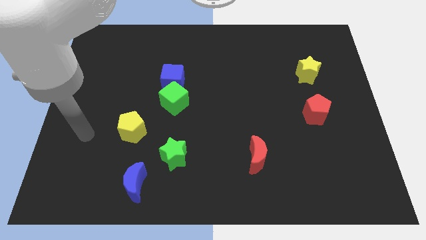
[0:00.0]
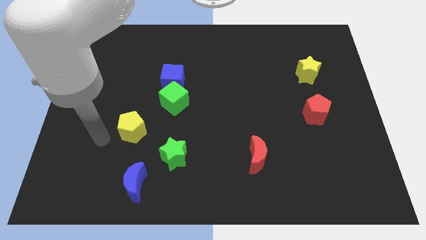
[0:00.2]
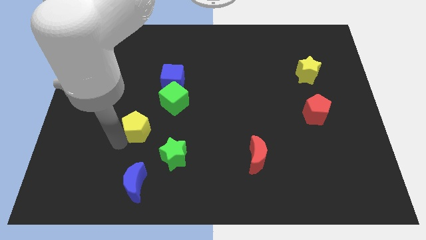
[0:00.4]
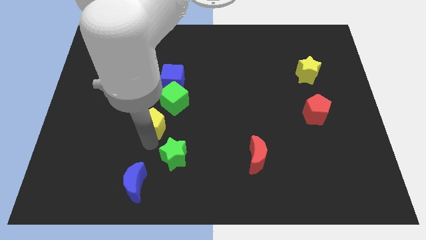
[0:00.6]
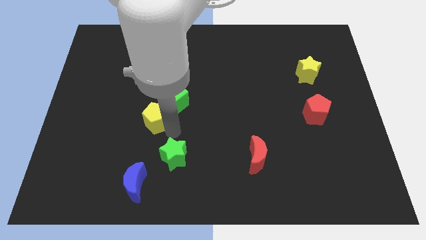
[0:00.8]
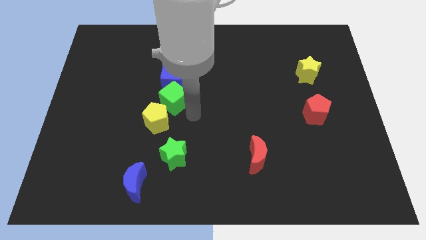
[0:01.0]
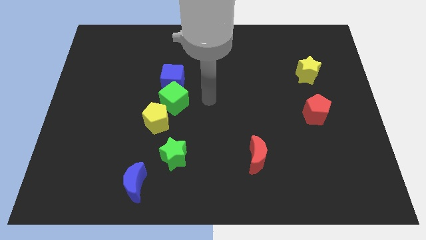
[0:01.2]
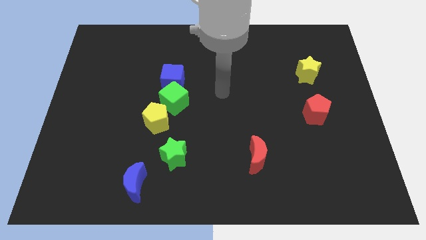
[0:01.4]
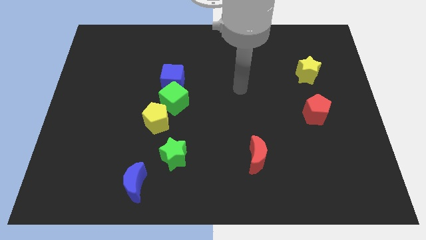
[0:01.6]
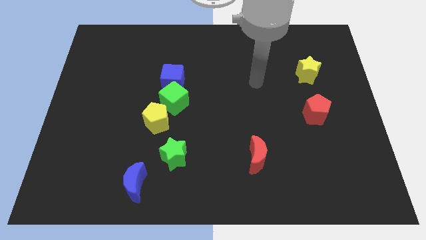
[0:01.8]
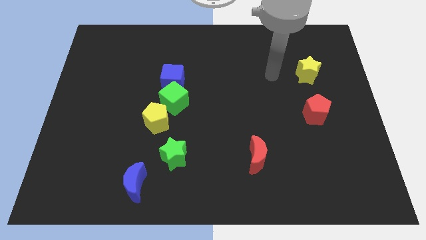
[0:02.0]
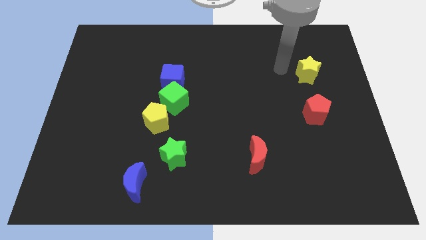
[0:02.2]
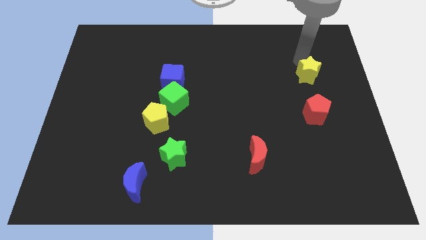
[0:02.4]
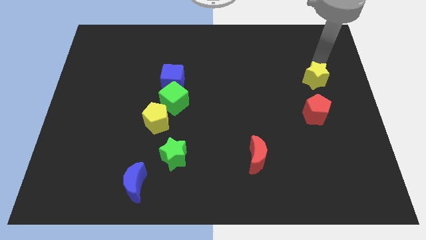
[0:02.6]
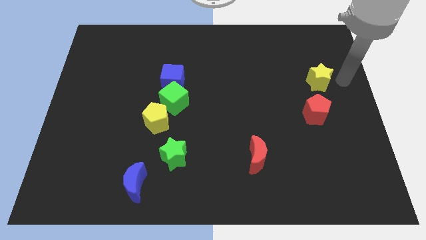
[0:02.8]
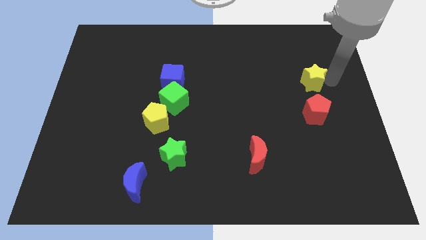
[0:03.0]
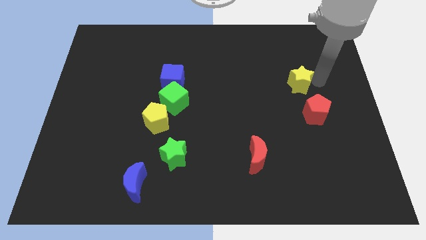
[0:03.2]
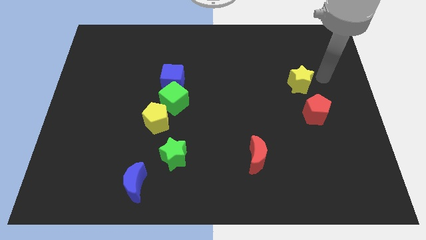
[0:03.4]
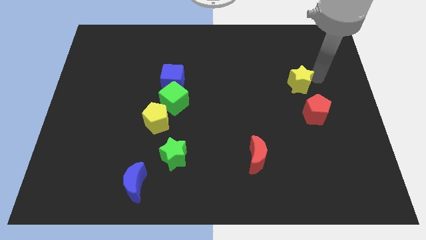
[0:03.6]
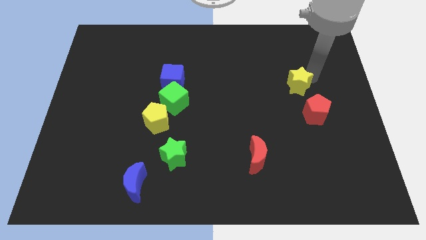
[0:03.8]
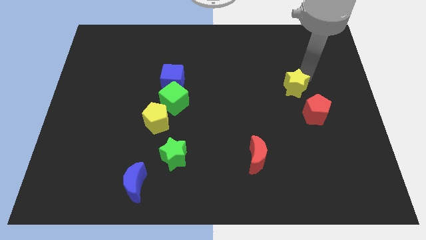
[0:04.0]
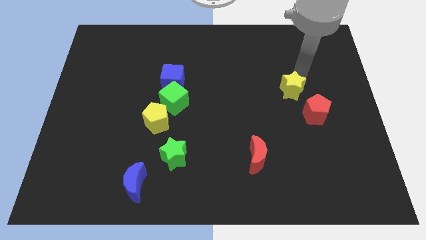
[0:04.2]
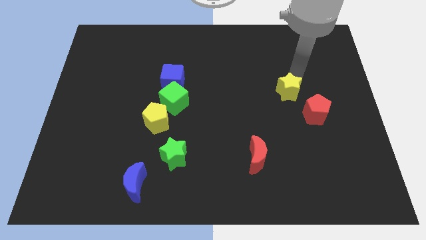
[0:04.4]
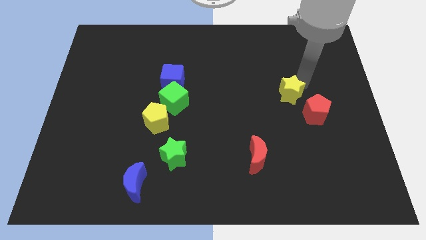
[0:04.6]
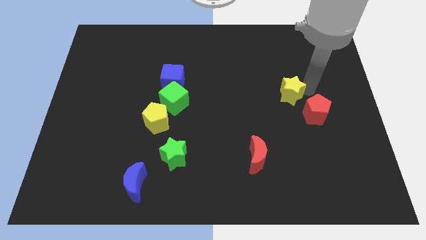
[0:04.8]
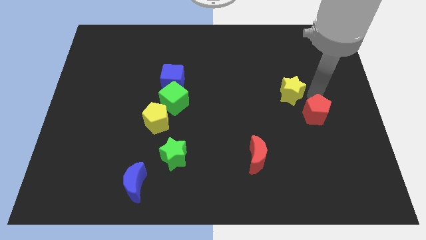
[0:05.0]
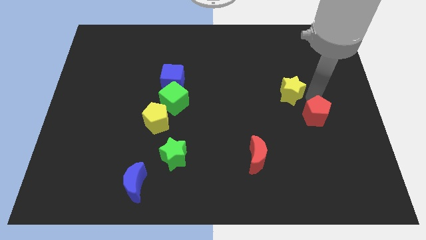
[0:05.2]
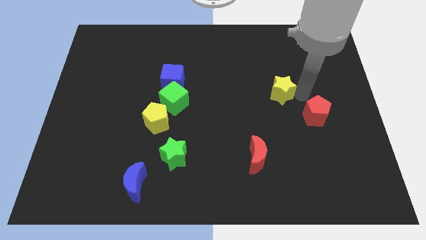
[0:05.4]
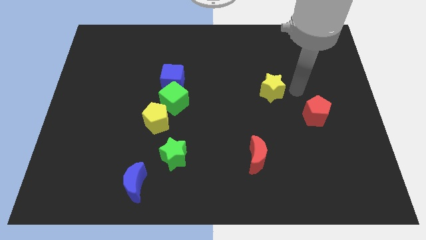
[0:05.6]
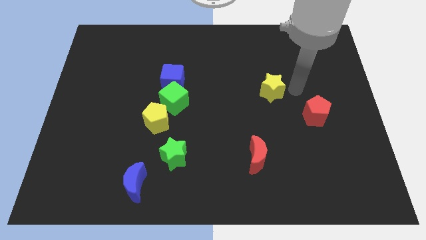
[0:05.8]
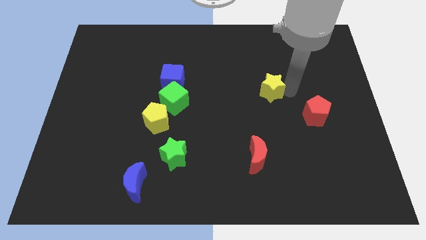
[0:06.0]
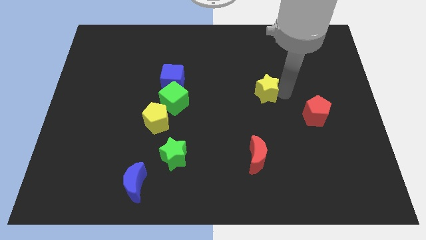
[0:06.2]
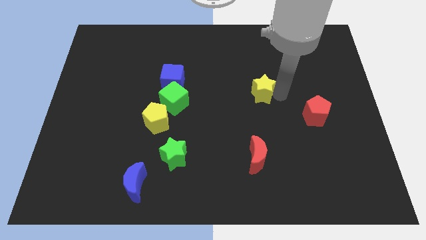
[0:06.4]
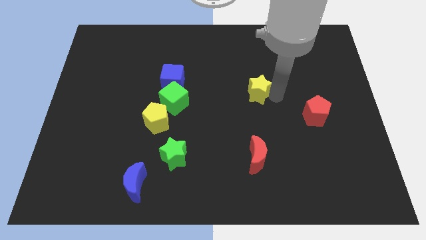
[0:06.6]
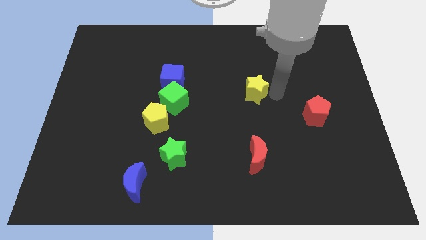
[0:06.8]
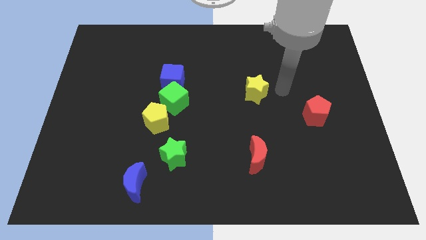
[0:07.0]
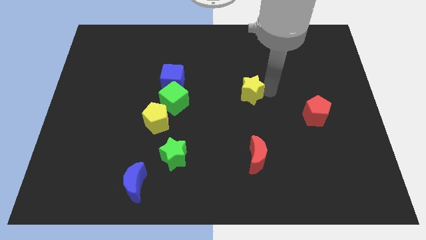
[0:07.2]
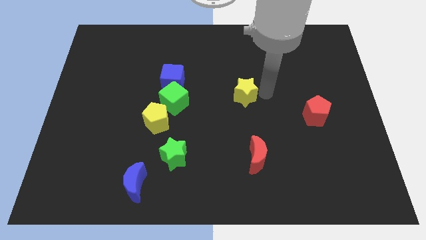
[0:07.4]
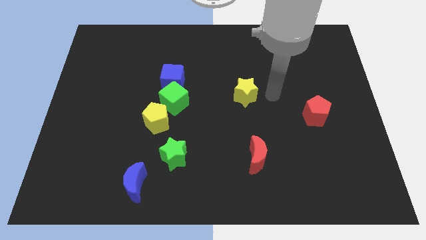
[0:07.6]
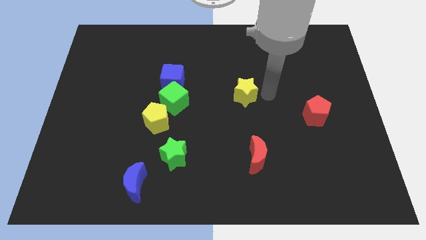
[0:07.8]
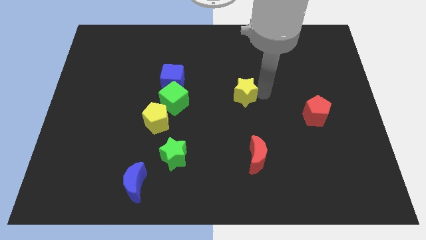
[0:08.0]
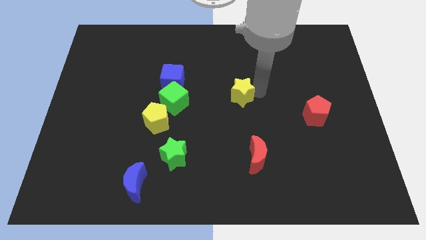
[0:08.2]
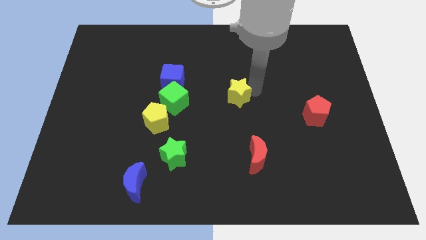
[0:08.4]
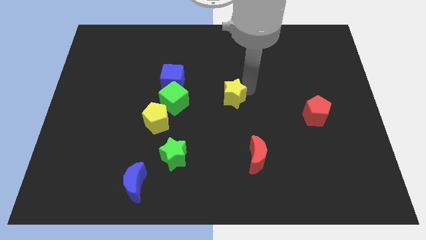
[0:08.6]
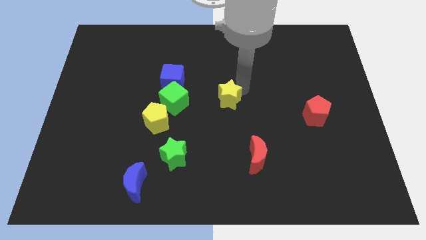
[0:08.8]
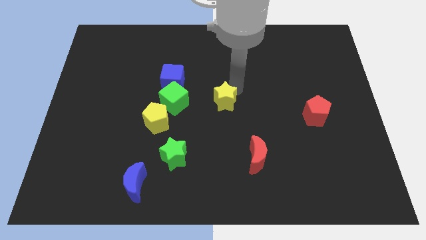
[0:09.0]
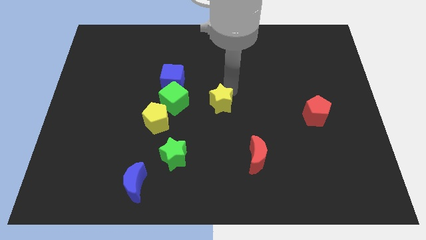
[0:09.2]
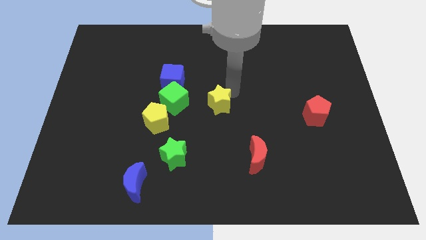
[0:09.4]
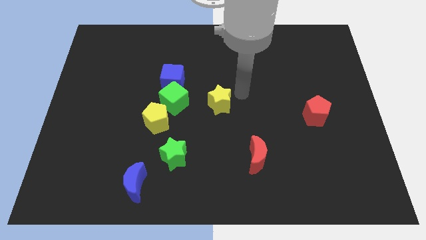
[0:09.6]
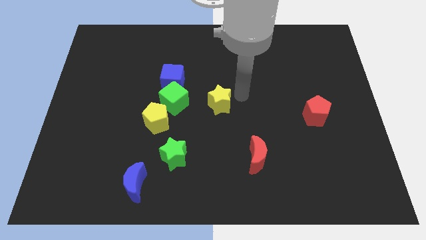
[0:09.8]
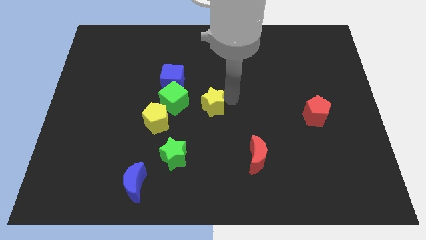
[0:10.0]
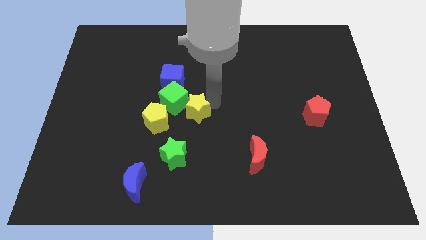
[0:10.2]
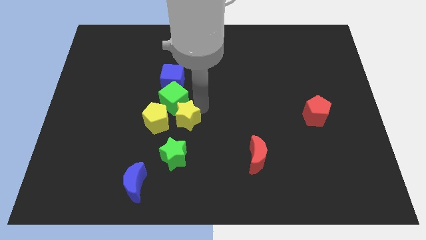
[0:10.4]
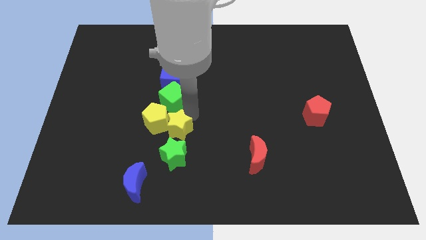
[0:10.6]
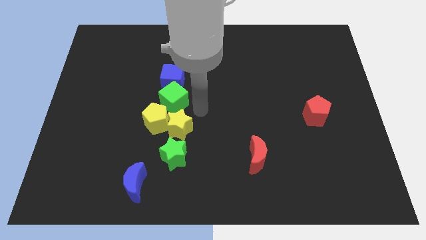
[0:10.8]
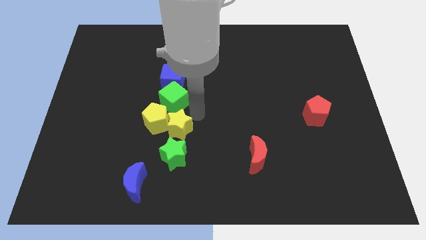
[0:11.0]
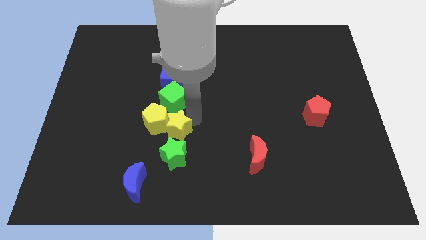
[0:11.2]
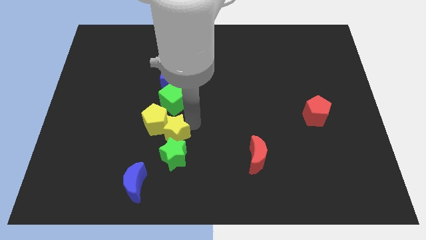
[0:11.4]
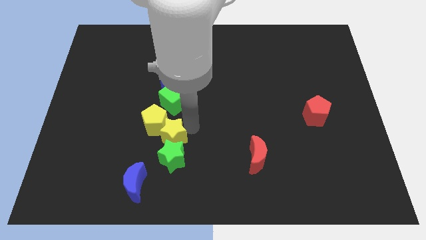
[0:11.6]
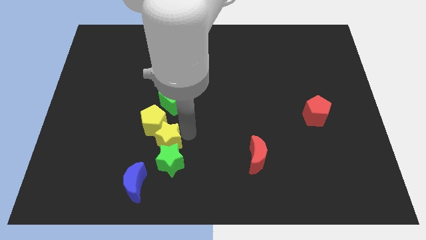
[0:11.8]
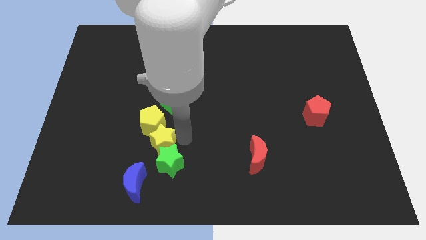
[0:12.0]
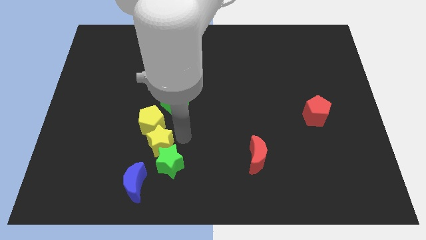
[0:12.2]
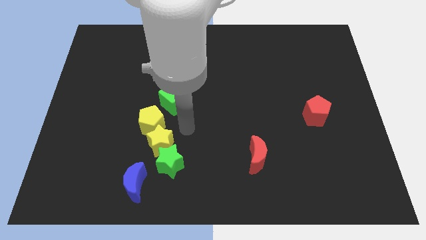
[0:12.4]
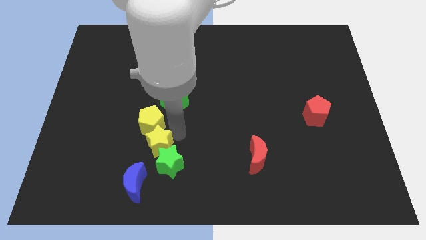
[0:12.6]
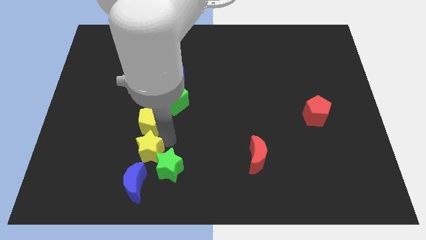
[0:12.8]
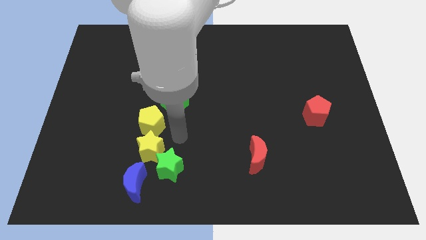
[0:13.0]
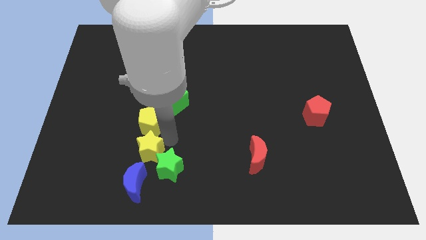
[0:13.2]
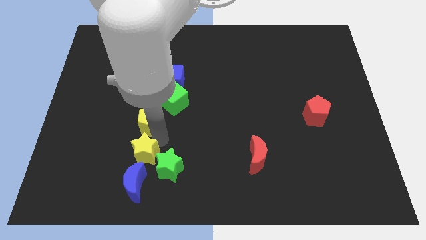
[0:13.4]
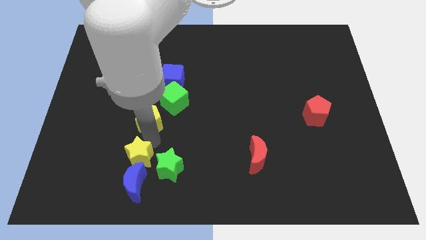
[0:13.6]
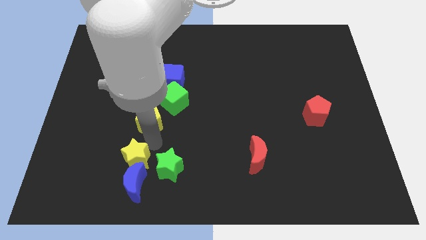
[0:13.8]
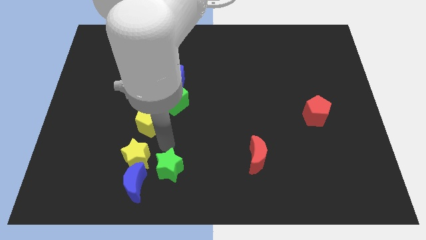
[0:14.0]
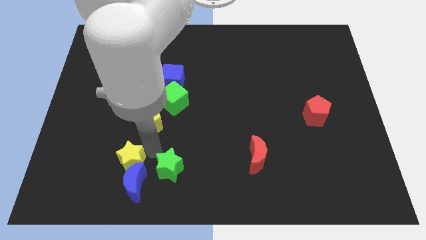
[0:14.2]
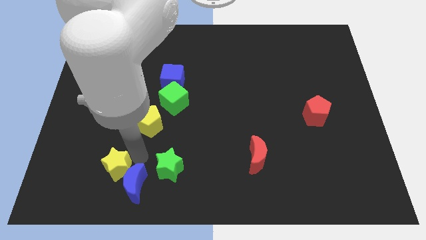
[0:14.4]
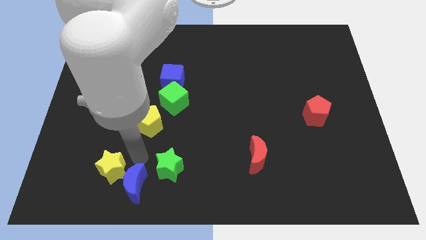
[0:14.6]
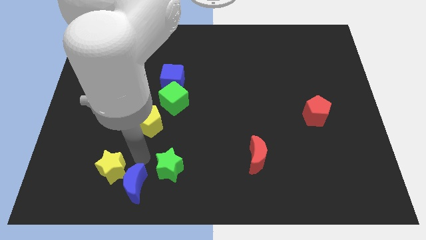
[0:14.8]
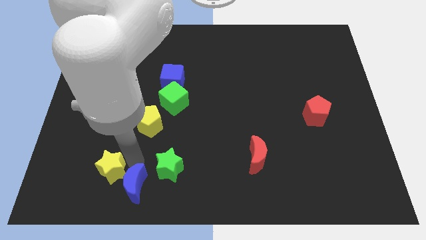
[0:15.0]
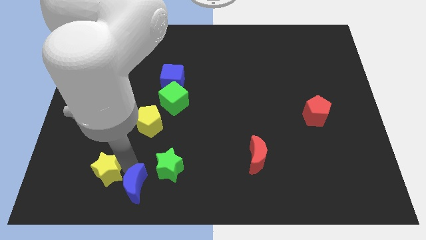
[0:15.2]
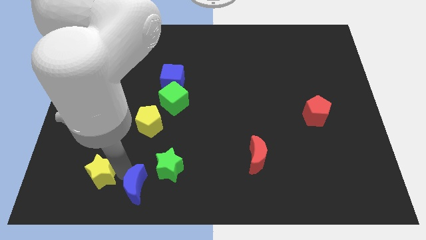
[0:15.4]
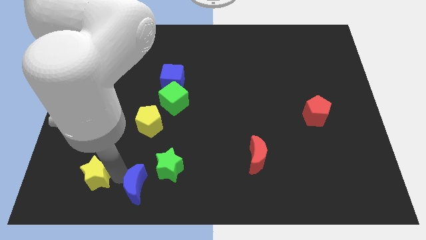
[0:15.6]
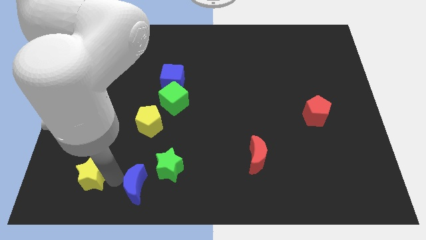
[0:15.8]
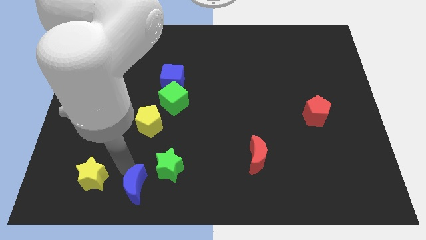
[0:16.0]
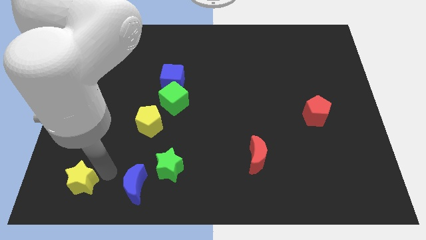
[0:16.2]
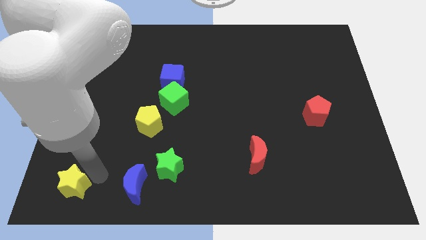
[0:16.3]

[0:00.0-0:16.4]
move the yellow star to the bottom left of the board
